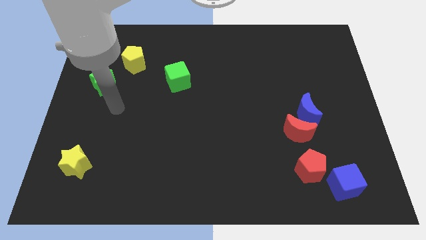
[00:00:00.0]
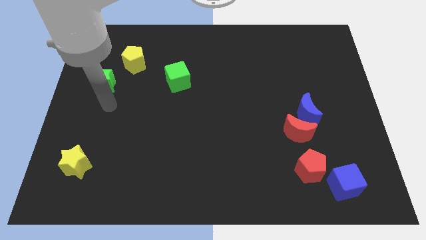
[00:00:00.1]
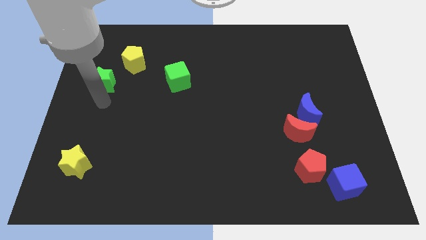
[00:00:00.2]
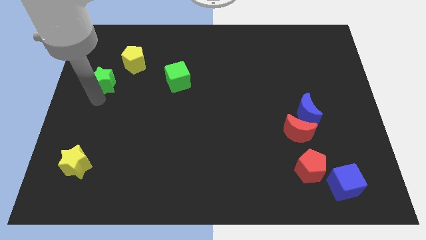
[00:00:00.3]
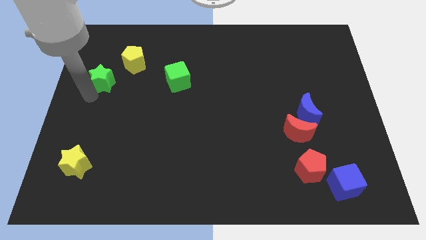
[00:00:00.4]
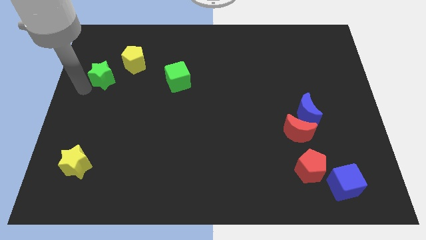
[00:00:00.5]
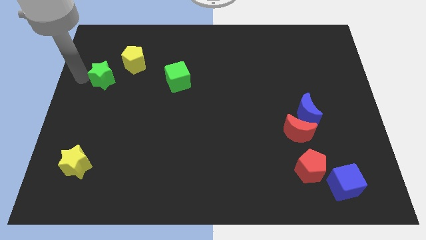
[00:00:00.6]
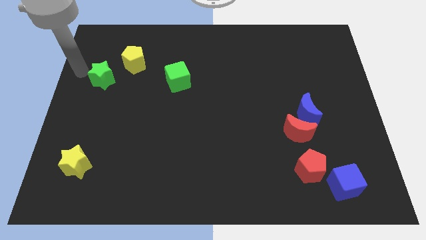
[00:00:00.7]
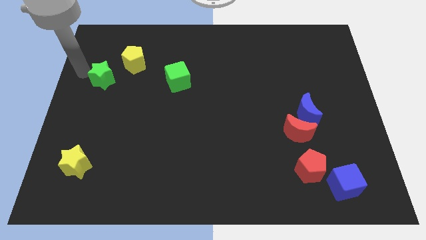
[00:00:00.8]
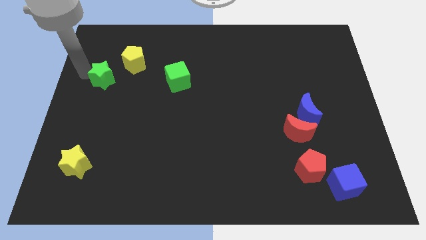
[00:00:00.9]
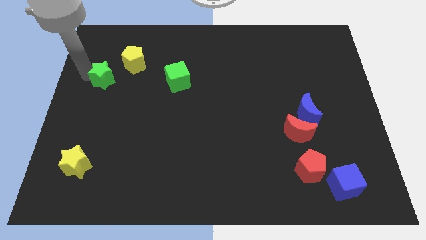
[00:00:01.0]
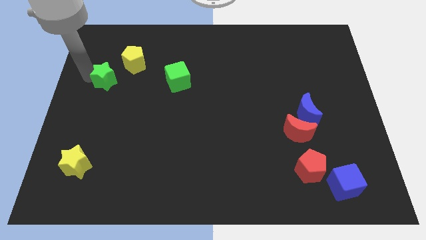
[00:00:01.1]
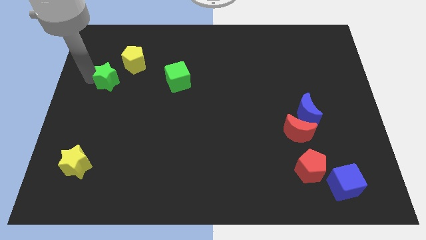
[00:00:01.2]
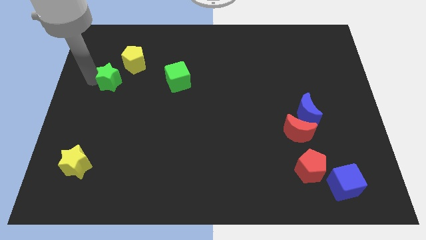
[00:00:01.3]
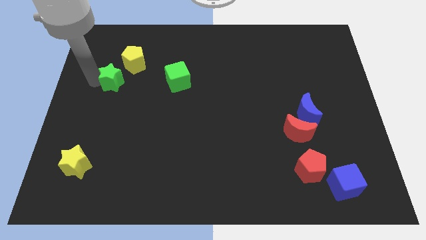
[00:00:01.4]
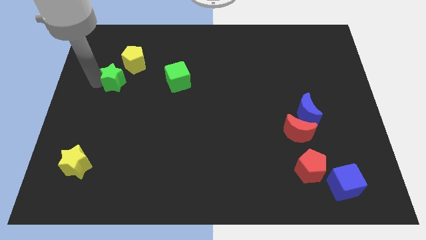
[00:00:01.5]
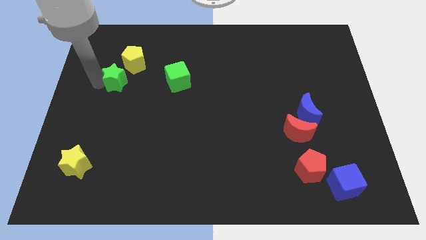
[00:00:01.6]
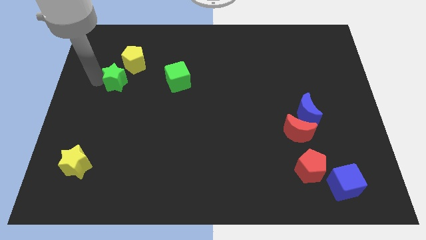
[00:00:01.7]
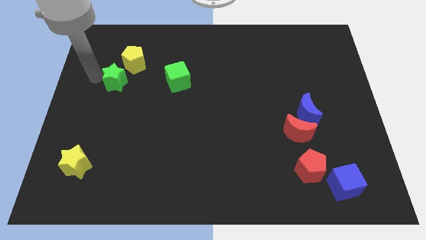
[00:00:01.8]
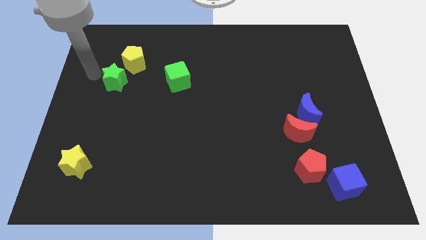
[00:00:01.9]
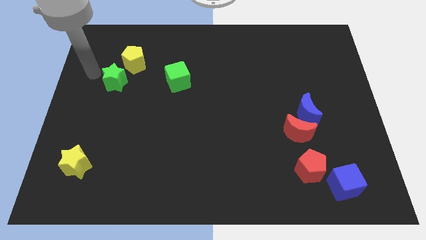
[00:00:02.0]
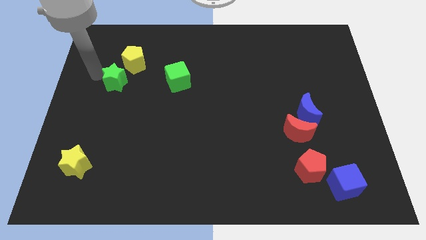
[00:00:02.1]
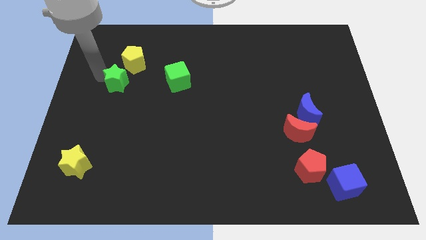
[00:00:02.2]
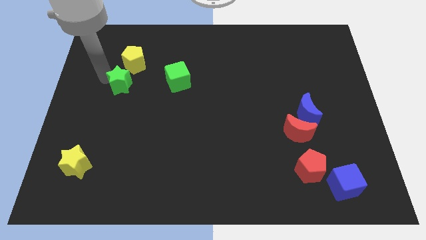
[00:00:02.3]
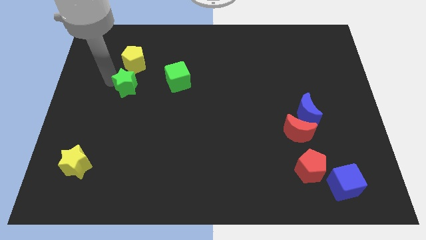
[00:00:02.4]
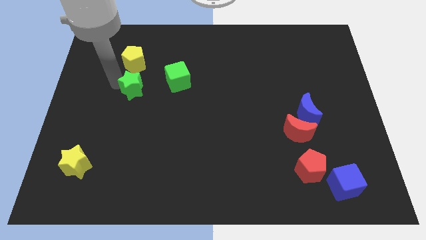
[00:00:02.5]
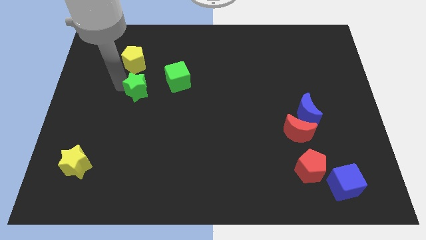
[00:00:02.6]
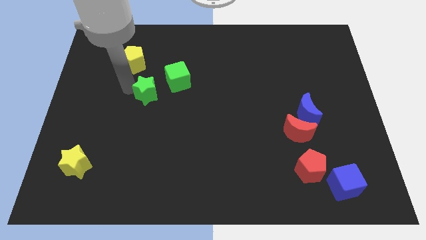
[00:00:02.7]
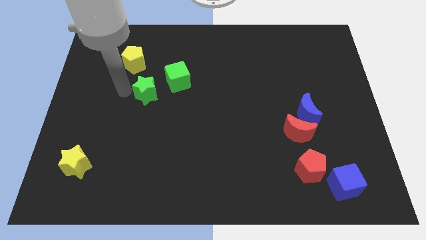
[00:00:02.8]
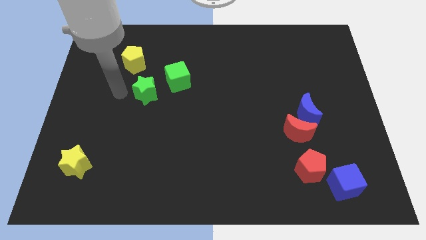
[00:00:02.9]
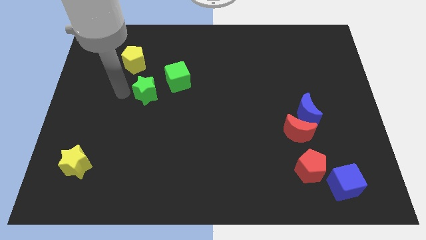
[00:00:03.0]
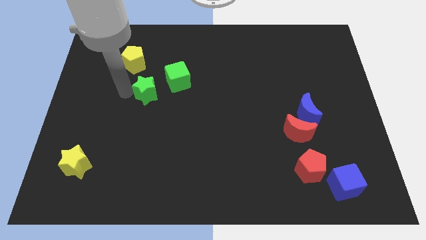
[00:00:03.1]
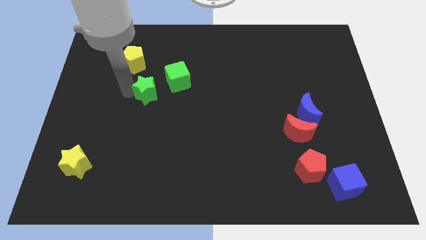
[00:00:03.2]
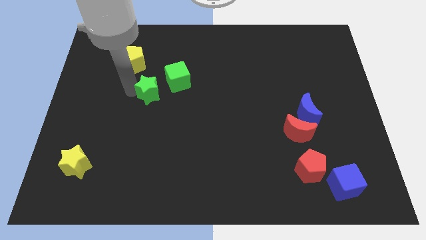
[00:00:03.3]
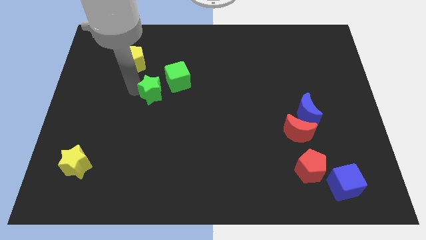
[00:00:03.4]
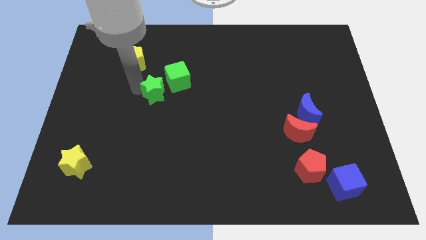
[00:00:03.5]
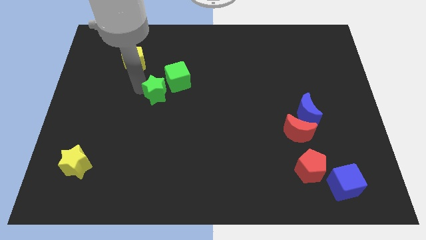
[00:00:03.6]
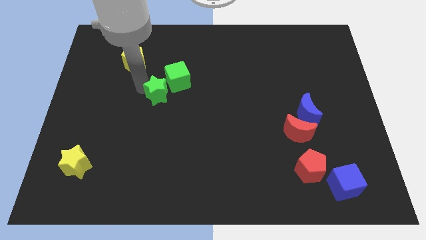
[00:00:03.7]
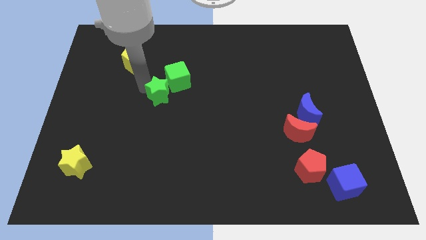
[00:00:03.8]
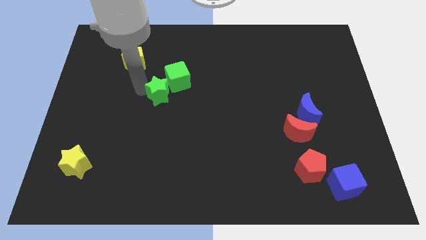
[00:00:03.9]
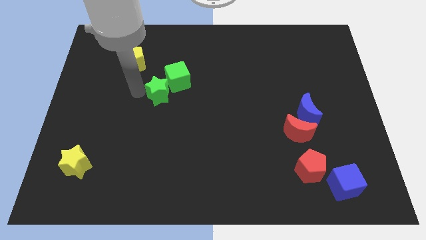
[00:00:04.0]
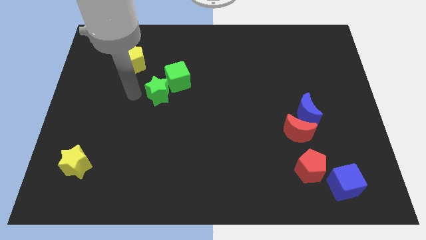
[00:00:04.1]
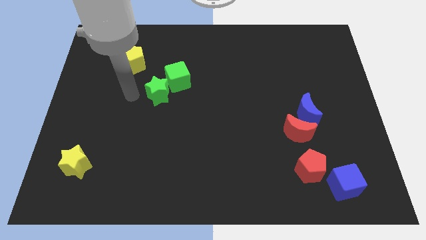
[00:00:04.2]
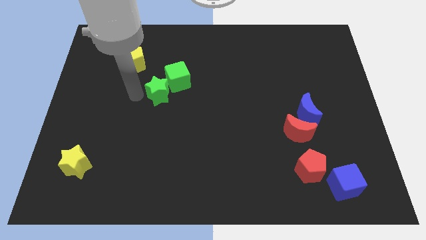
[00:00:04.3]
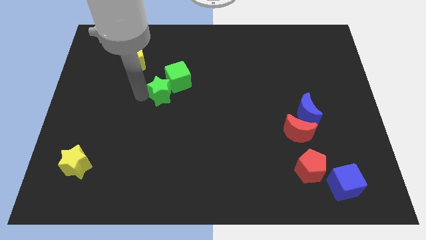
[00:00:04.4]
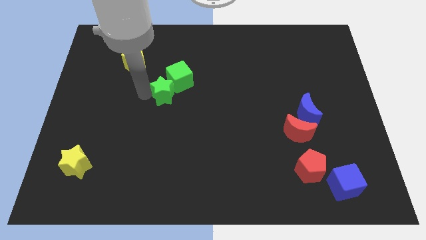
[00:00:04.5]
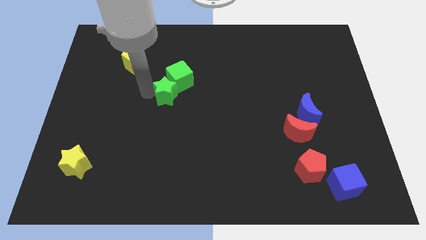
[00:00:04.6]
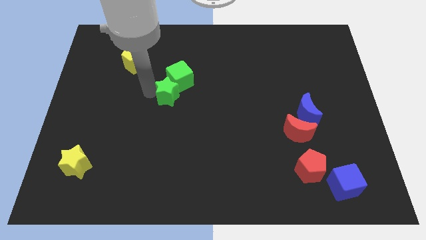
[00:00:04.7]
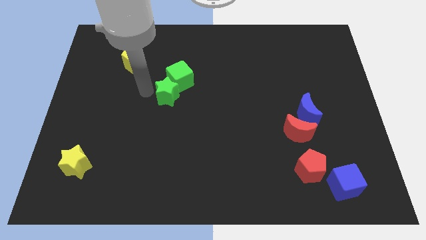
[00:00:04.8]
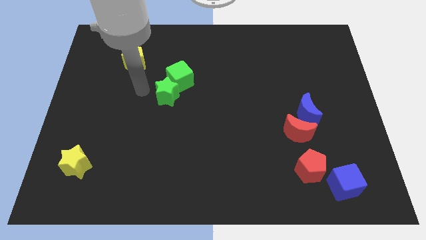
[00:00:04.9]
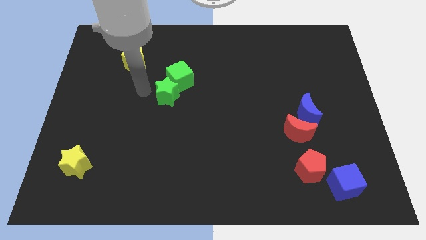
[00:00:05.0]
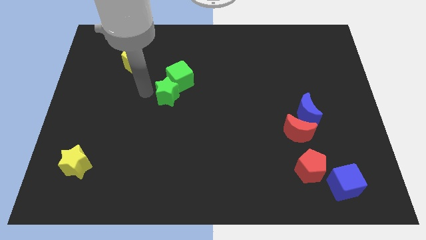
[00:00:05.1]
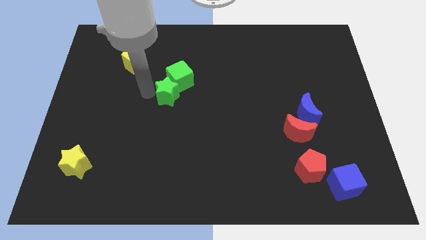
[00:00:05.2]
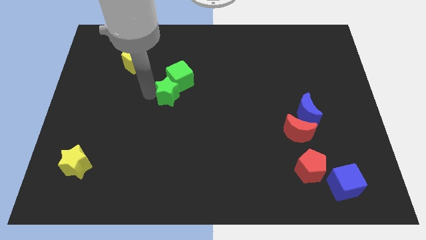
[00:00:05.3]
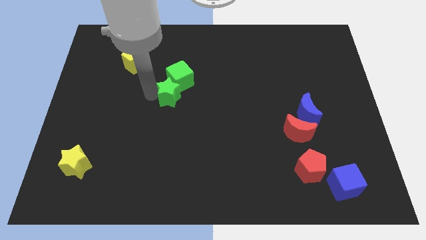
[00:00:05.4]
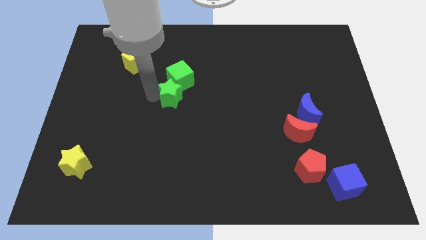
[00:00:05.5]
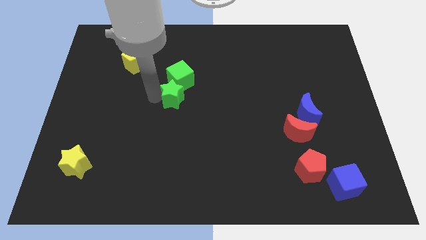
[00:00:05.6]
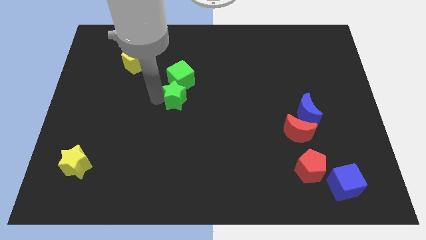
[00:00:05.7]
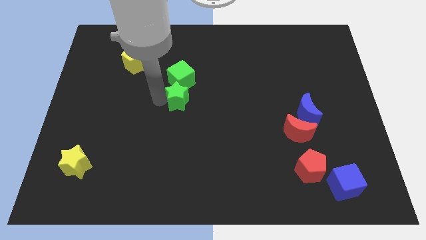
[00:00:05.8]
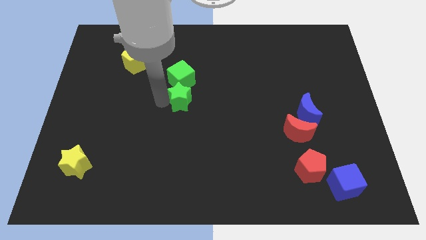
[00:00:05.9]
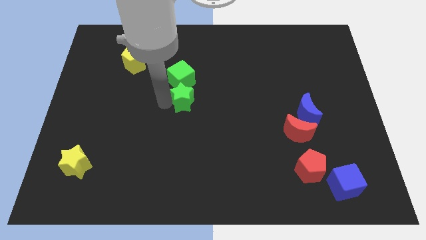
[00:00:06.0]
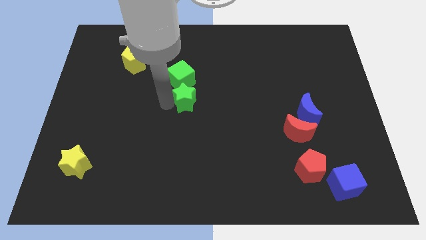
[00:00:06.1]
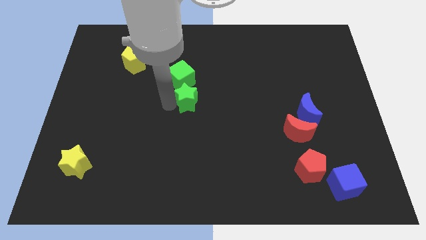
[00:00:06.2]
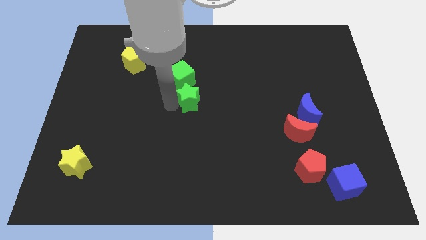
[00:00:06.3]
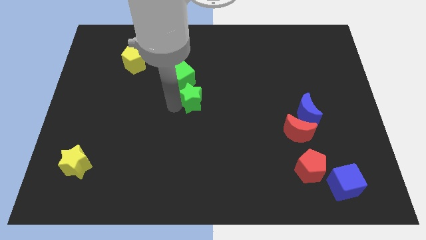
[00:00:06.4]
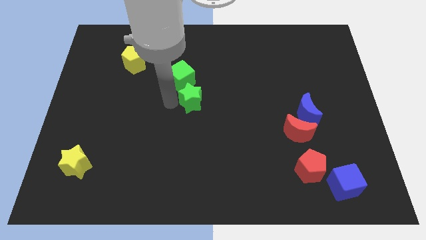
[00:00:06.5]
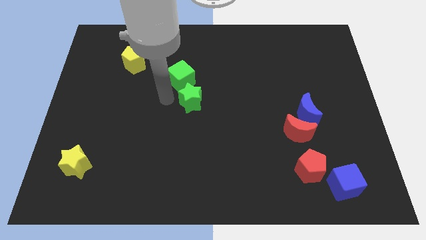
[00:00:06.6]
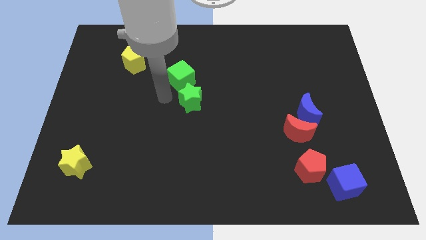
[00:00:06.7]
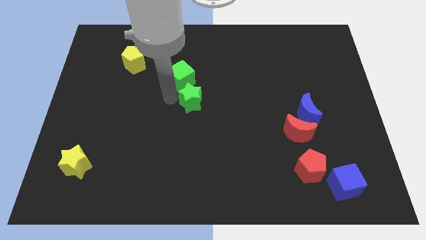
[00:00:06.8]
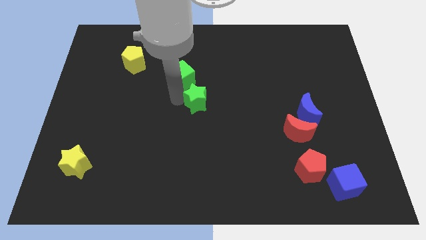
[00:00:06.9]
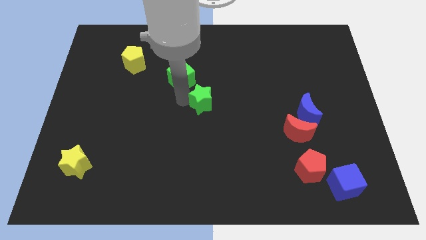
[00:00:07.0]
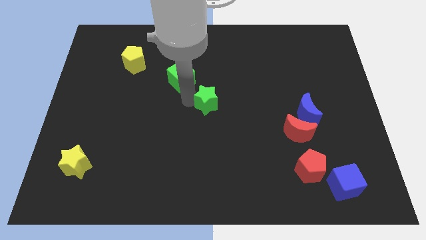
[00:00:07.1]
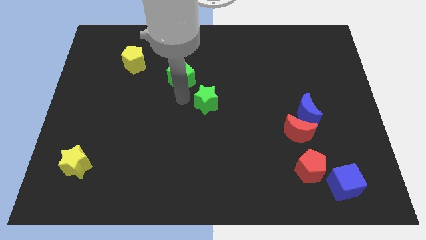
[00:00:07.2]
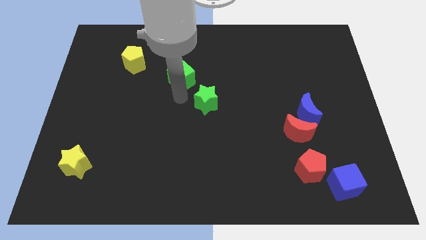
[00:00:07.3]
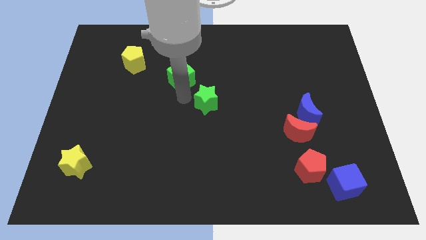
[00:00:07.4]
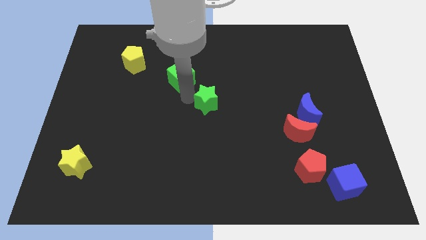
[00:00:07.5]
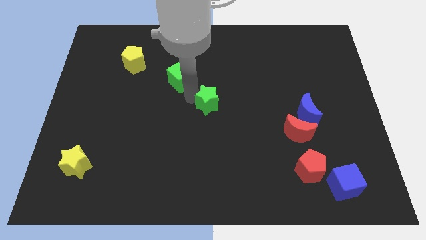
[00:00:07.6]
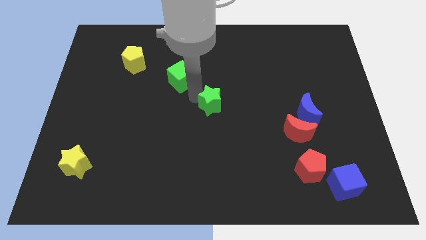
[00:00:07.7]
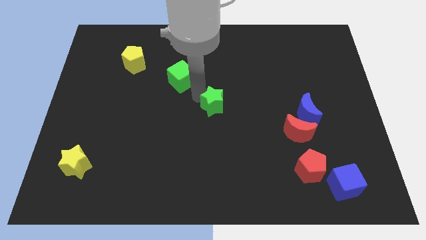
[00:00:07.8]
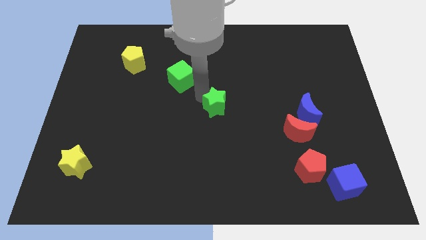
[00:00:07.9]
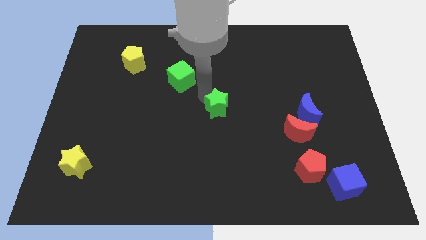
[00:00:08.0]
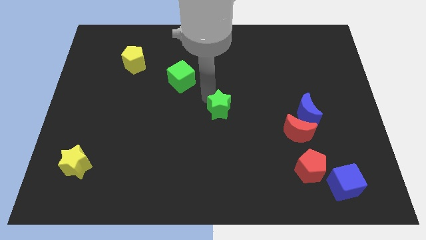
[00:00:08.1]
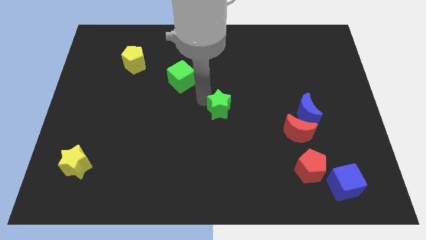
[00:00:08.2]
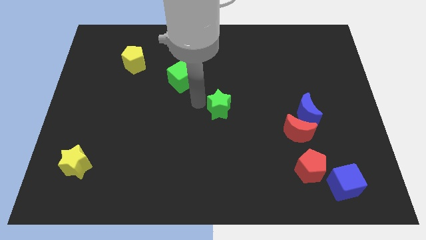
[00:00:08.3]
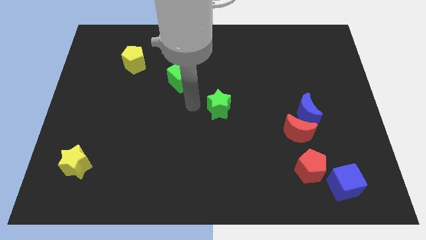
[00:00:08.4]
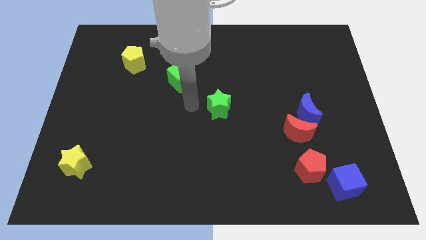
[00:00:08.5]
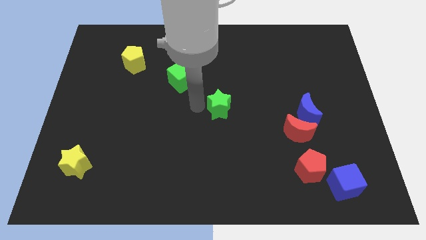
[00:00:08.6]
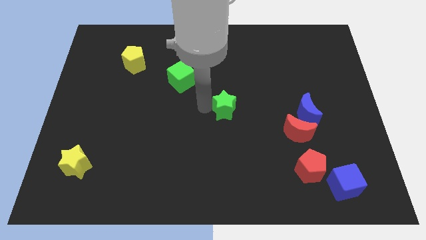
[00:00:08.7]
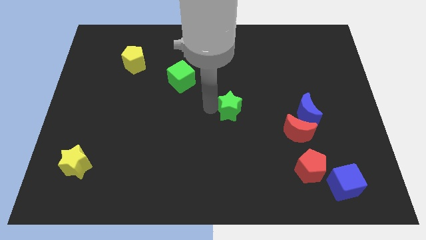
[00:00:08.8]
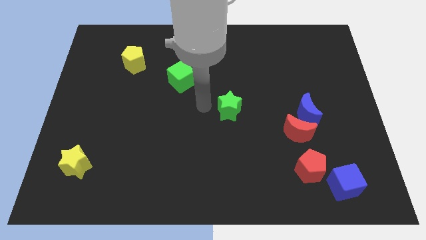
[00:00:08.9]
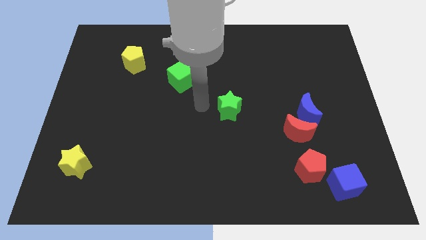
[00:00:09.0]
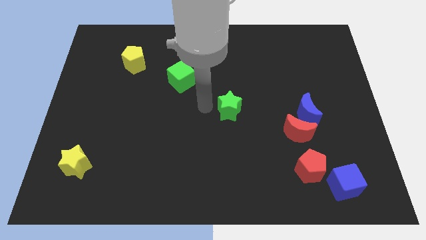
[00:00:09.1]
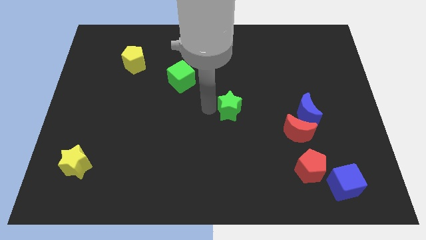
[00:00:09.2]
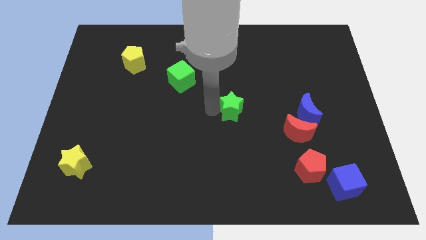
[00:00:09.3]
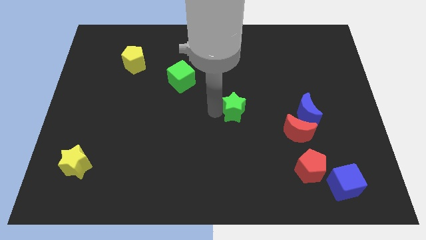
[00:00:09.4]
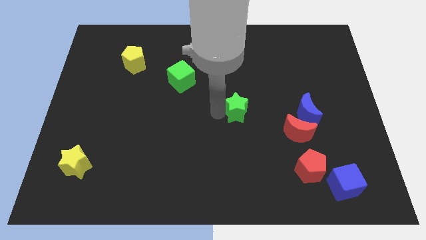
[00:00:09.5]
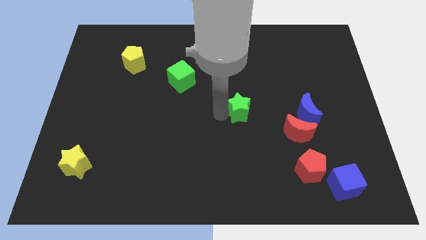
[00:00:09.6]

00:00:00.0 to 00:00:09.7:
slide the green star left of the blue moon
